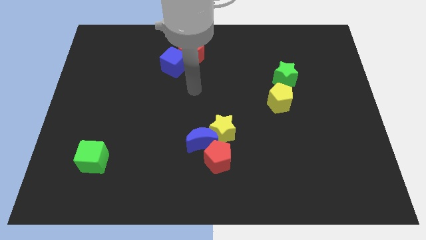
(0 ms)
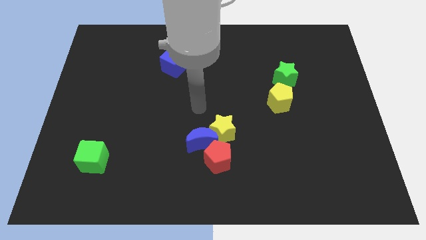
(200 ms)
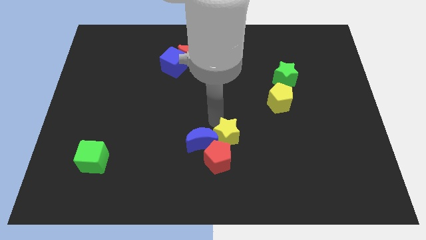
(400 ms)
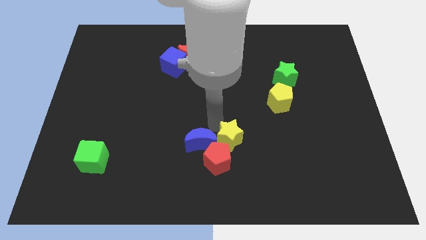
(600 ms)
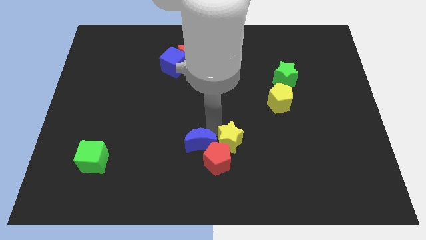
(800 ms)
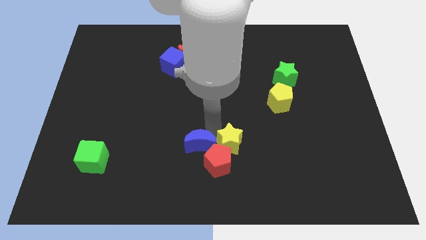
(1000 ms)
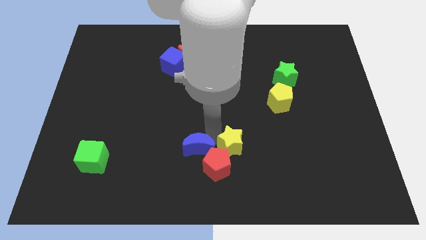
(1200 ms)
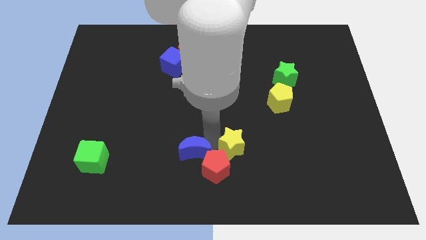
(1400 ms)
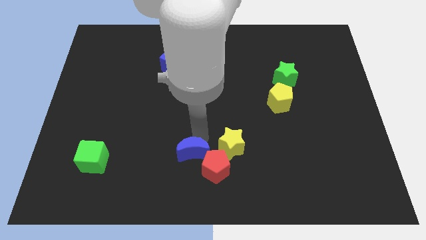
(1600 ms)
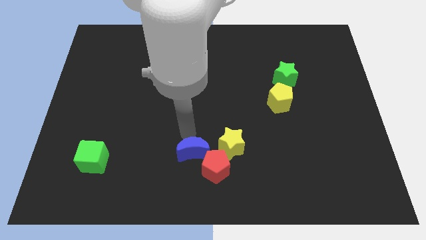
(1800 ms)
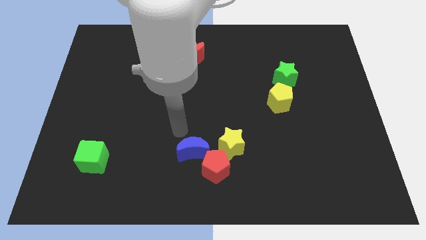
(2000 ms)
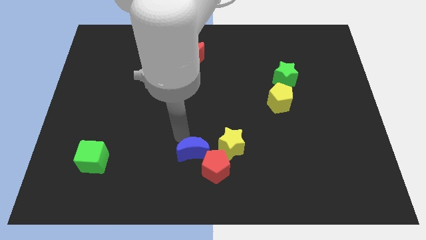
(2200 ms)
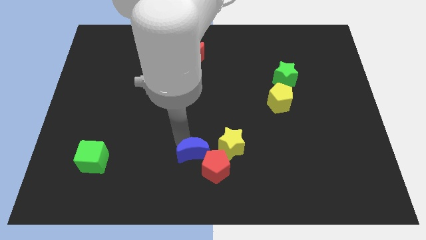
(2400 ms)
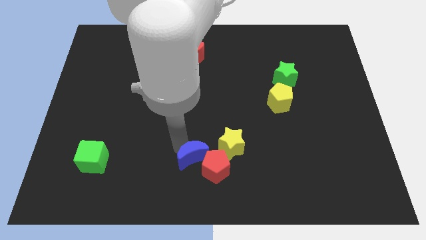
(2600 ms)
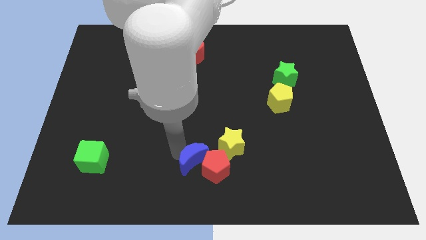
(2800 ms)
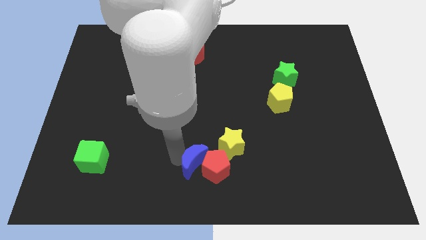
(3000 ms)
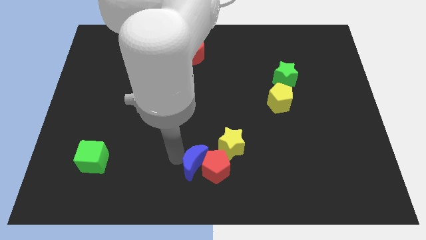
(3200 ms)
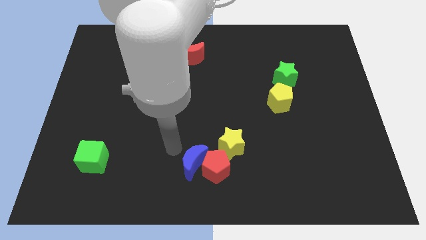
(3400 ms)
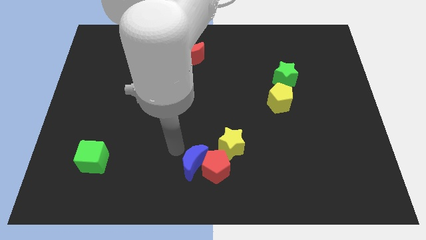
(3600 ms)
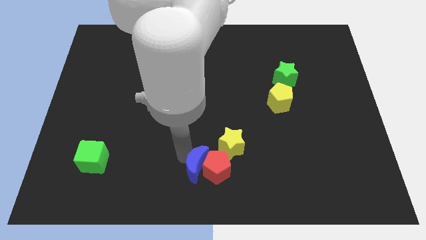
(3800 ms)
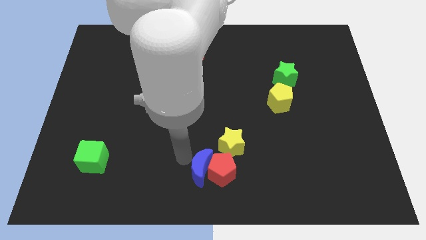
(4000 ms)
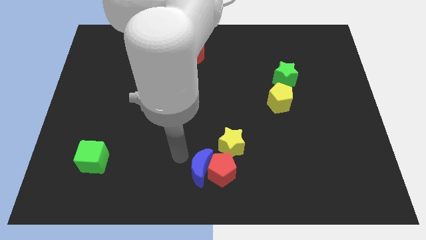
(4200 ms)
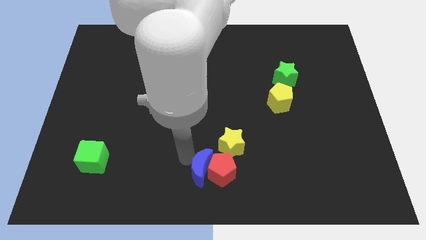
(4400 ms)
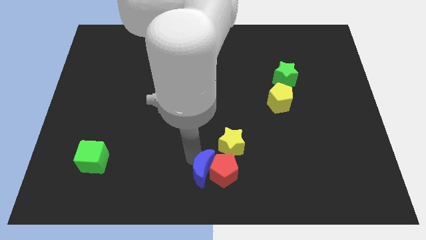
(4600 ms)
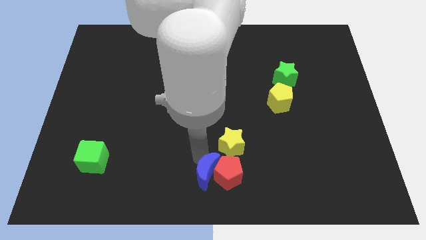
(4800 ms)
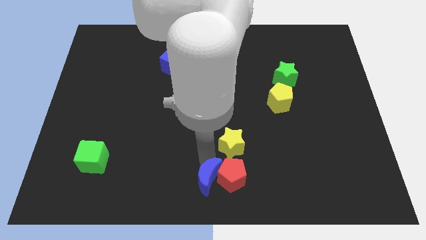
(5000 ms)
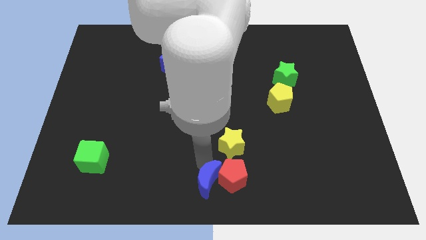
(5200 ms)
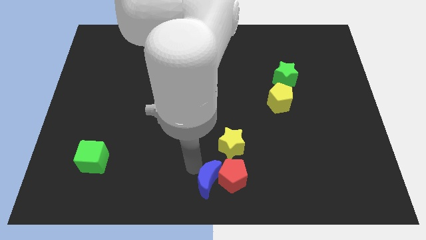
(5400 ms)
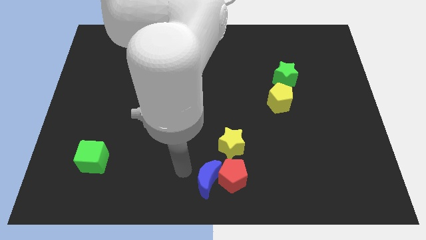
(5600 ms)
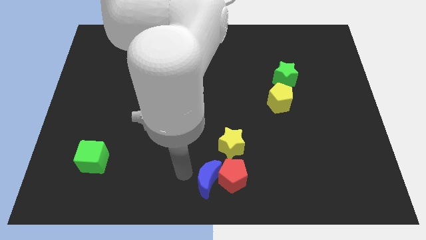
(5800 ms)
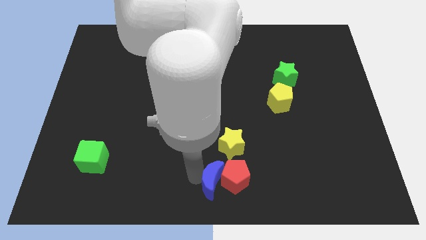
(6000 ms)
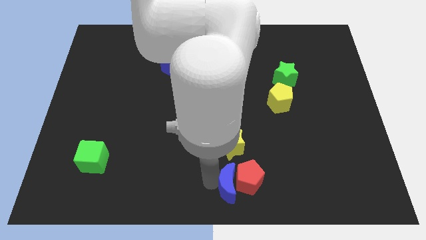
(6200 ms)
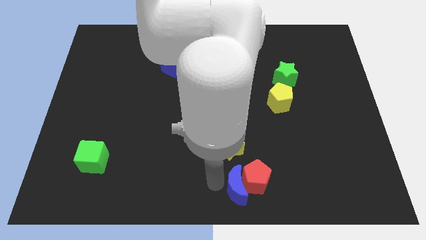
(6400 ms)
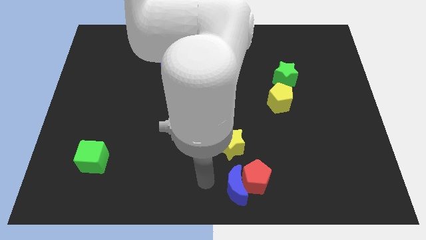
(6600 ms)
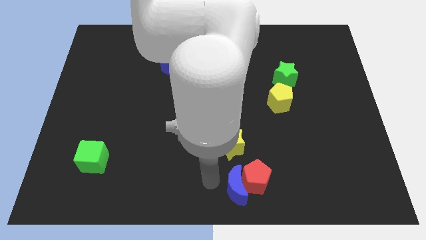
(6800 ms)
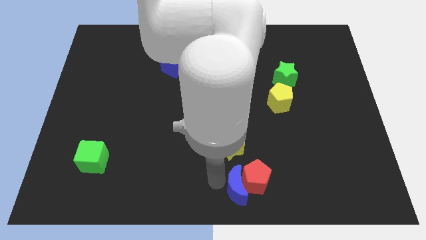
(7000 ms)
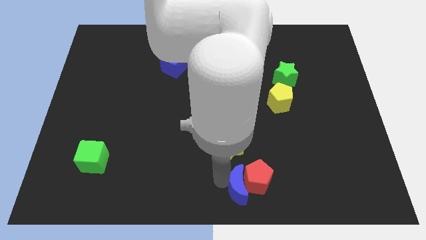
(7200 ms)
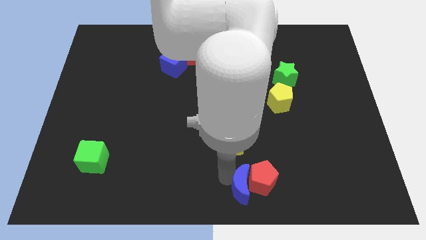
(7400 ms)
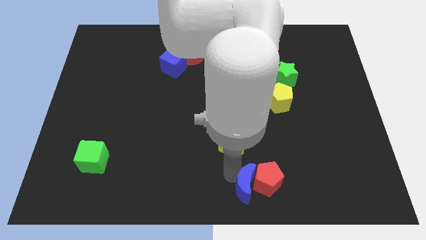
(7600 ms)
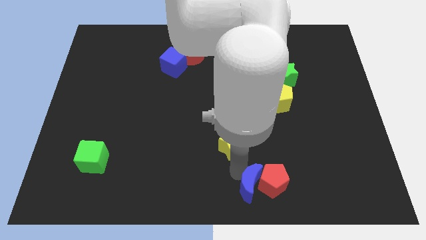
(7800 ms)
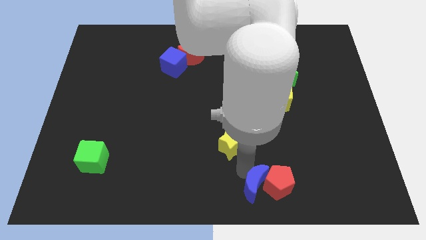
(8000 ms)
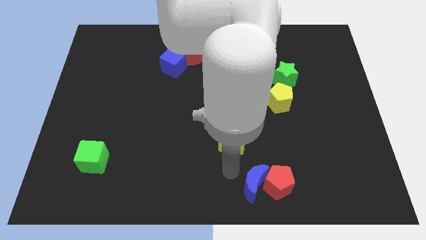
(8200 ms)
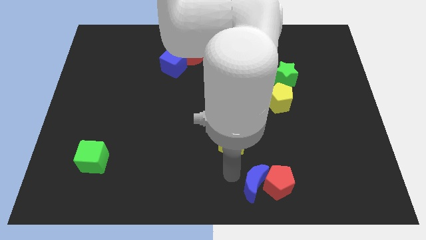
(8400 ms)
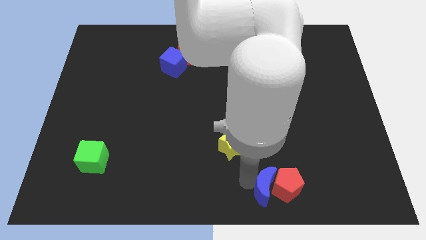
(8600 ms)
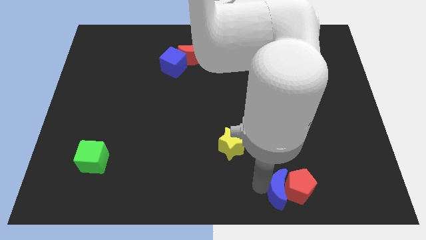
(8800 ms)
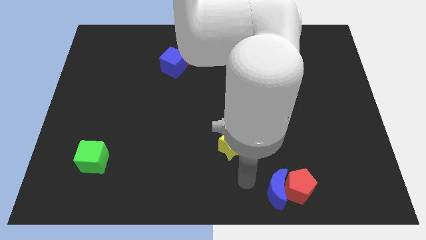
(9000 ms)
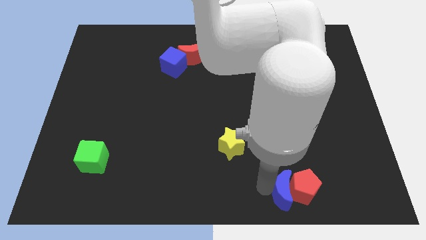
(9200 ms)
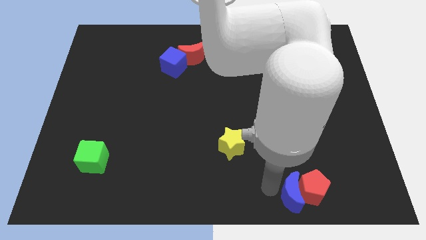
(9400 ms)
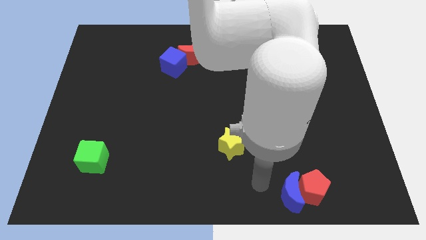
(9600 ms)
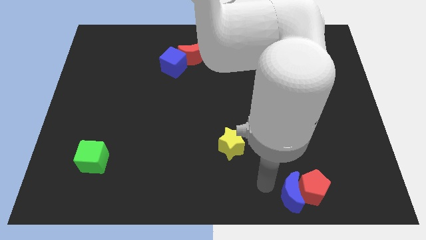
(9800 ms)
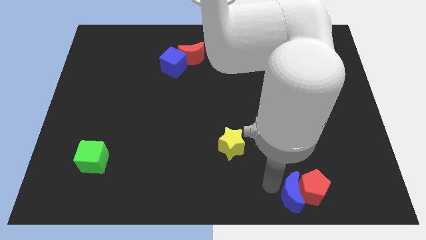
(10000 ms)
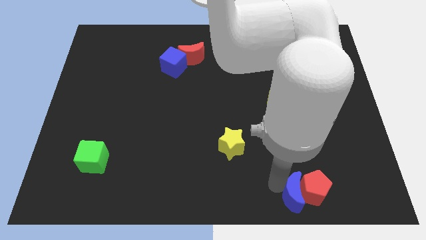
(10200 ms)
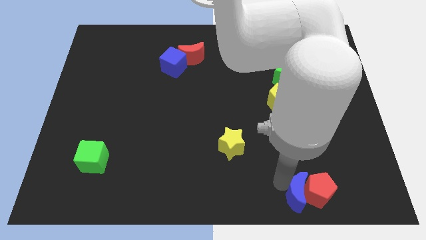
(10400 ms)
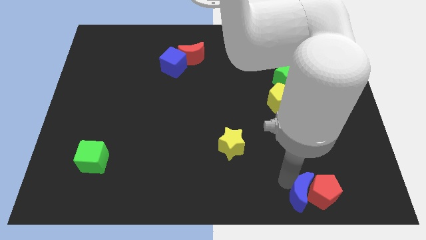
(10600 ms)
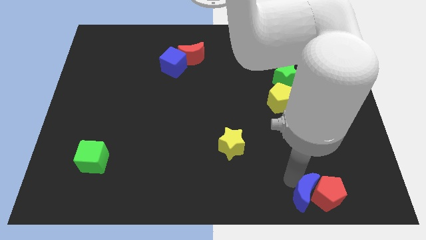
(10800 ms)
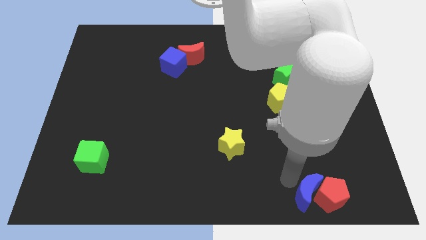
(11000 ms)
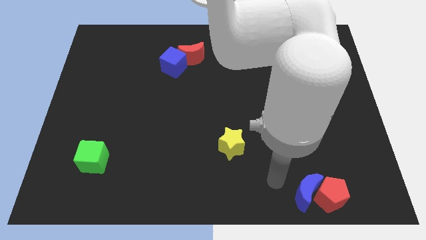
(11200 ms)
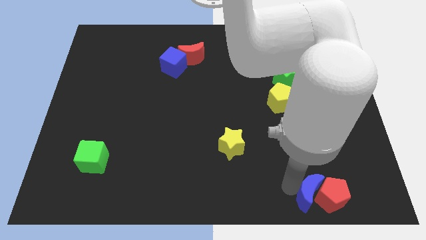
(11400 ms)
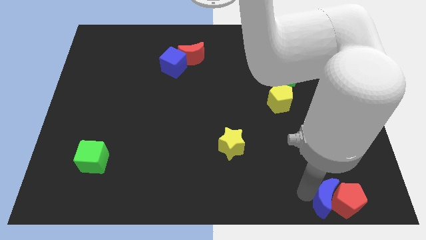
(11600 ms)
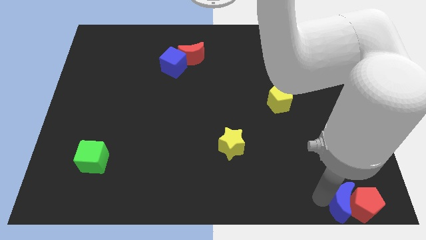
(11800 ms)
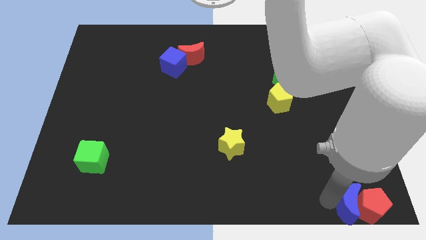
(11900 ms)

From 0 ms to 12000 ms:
move the blue moon to the bottom right of the board
